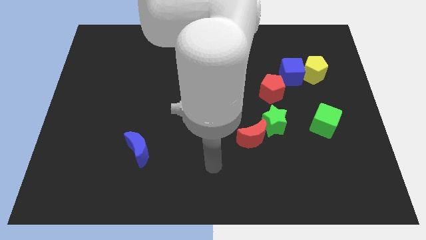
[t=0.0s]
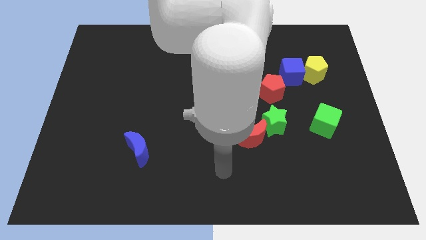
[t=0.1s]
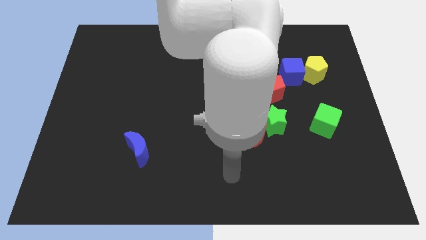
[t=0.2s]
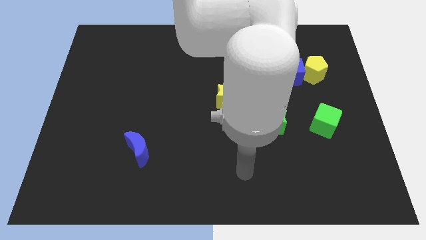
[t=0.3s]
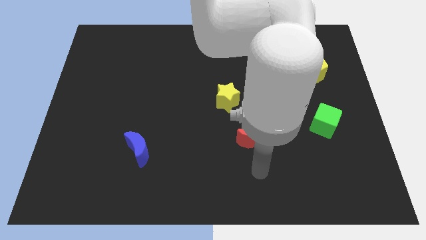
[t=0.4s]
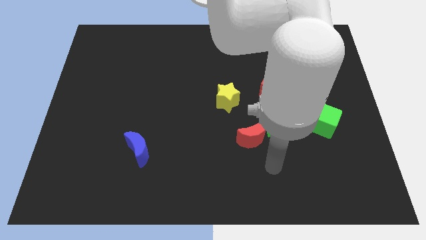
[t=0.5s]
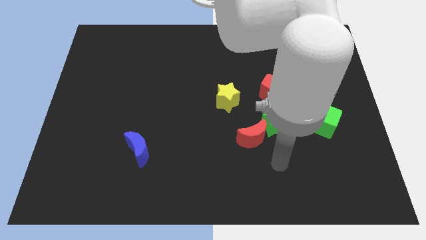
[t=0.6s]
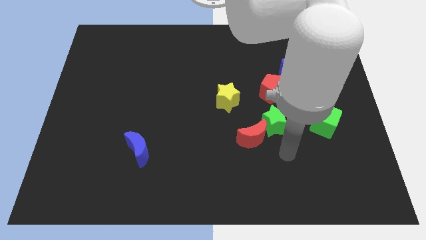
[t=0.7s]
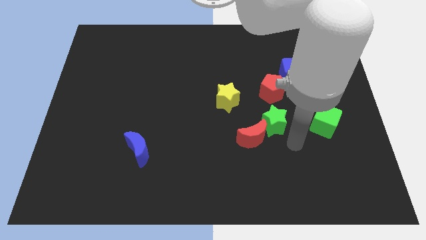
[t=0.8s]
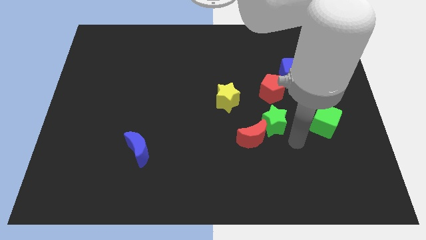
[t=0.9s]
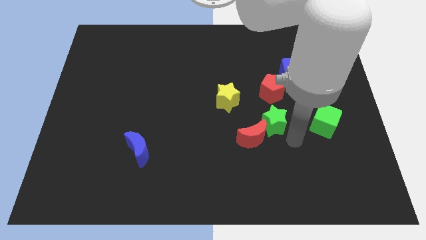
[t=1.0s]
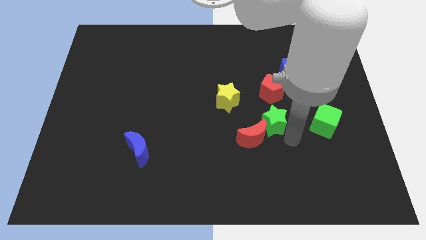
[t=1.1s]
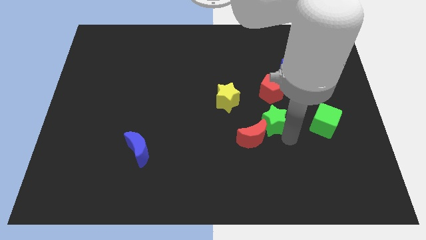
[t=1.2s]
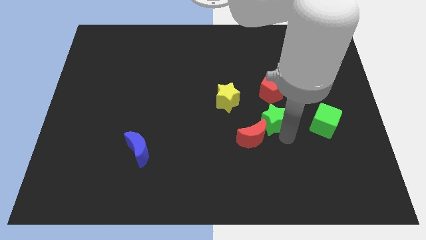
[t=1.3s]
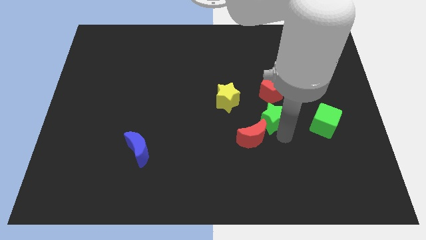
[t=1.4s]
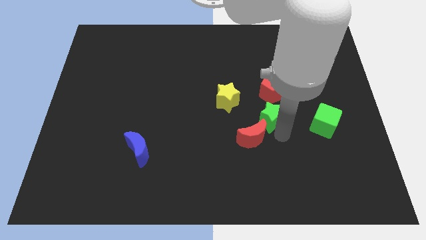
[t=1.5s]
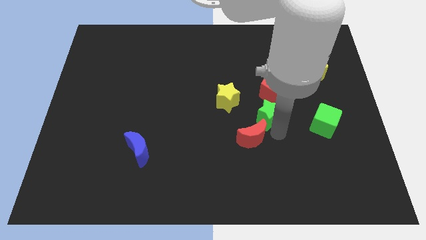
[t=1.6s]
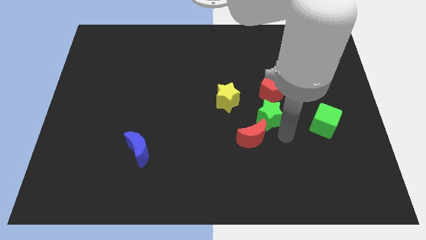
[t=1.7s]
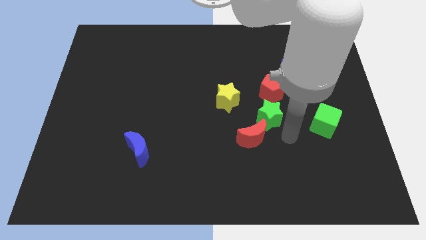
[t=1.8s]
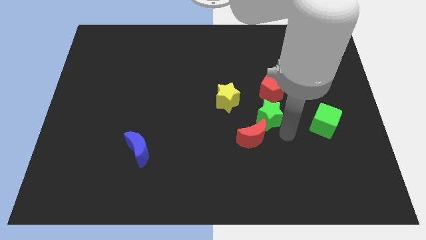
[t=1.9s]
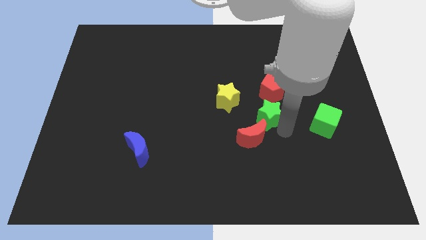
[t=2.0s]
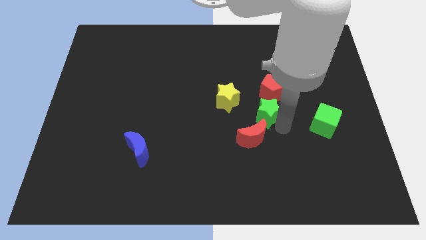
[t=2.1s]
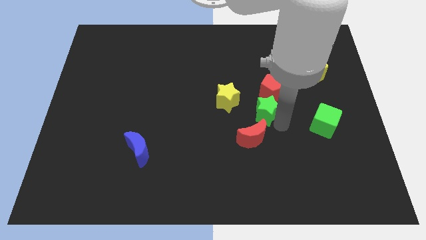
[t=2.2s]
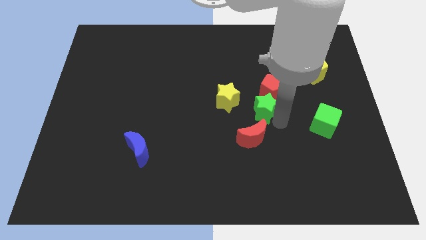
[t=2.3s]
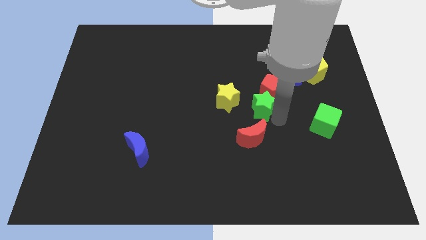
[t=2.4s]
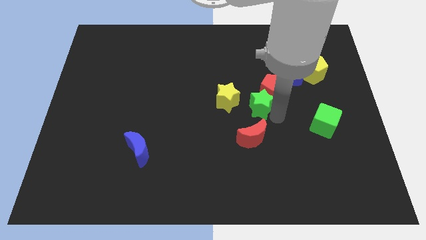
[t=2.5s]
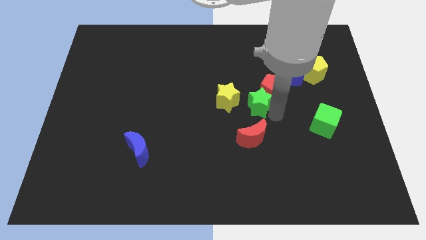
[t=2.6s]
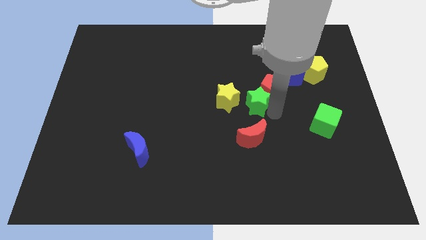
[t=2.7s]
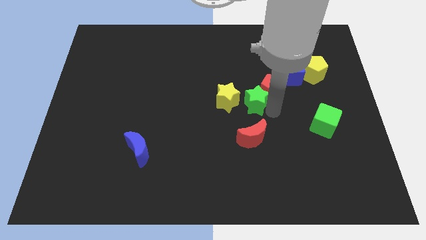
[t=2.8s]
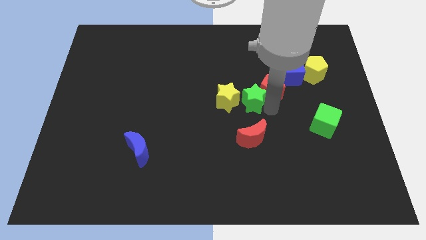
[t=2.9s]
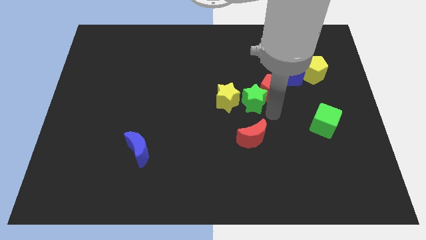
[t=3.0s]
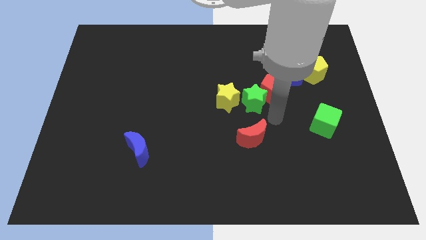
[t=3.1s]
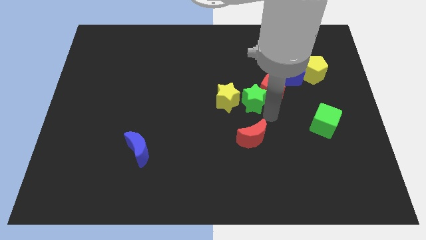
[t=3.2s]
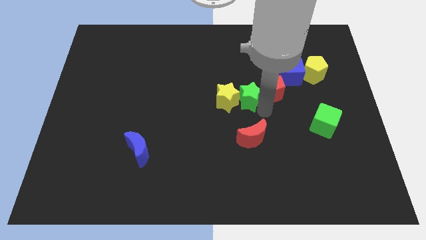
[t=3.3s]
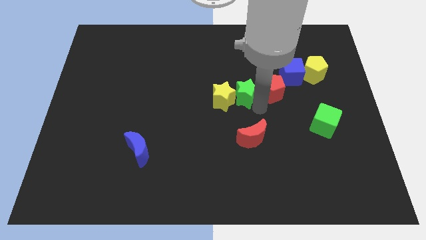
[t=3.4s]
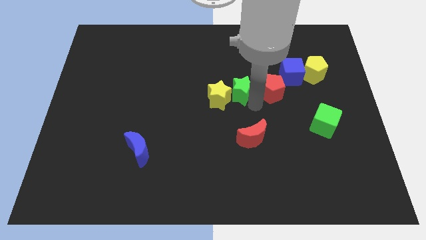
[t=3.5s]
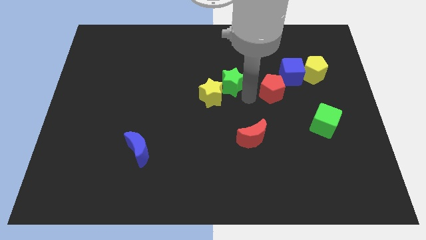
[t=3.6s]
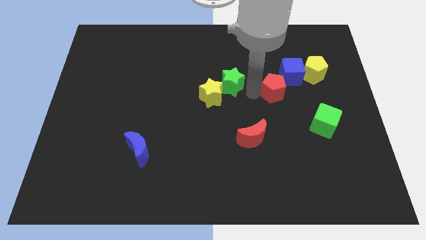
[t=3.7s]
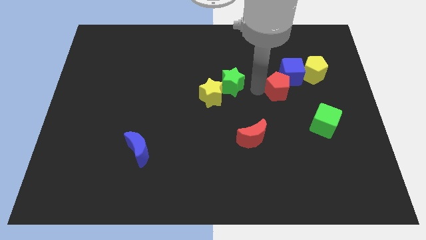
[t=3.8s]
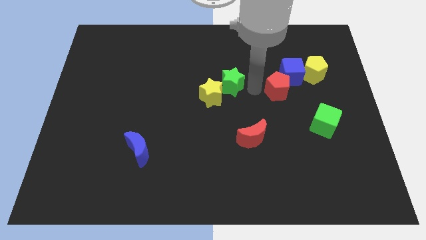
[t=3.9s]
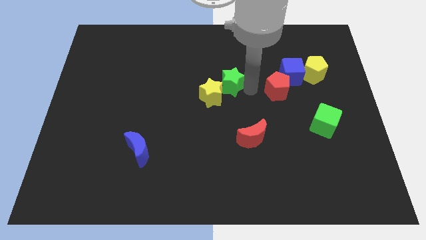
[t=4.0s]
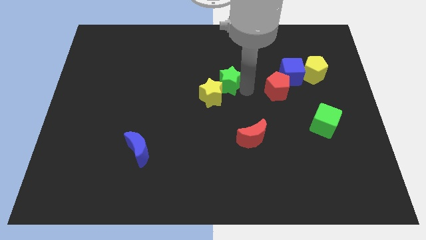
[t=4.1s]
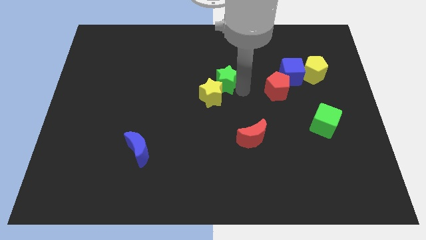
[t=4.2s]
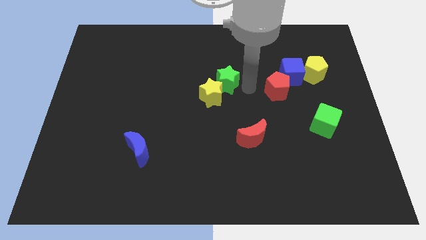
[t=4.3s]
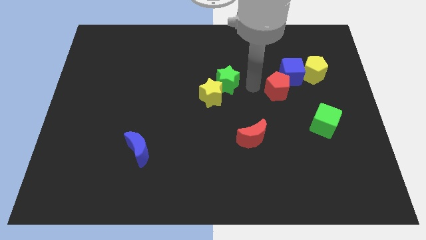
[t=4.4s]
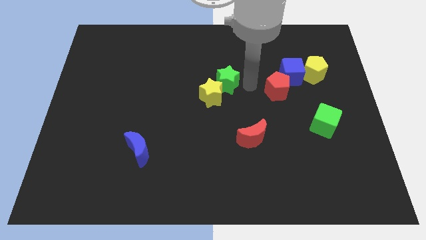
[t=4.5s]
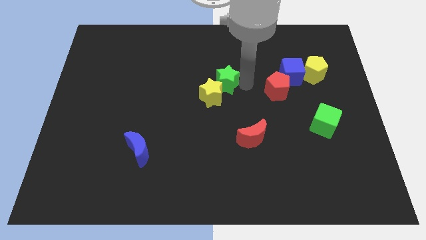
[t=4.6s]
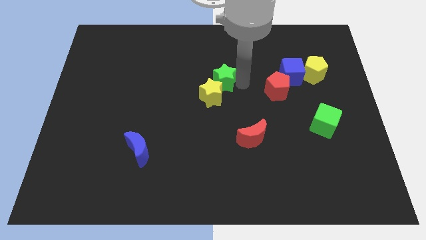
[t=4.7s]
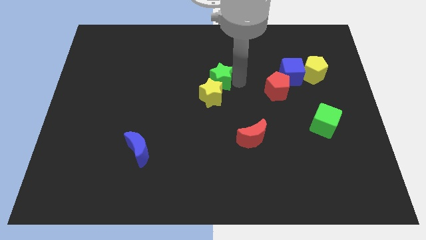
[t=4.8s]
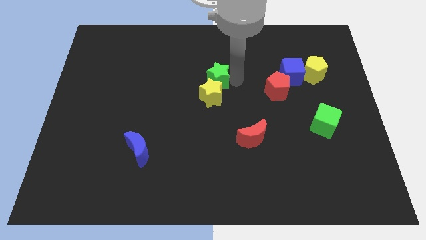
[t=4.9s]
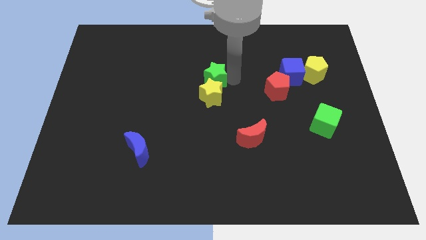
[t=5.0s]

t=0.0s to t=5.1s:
push the green star diagonally up and to the left of the yellow star

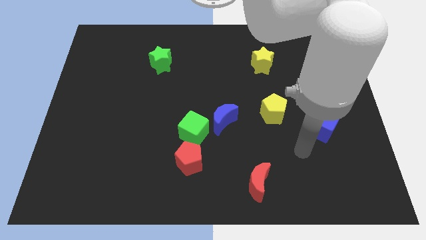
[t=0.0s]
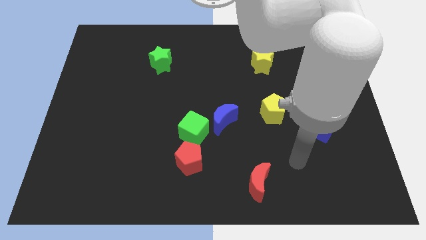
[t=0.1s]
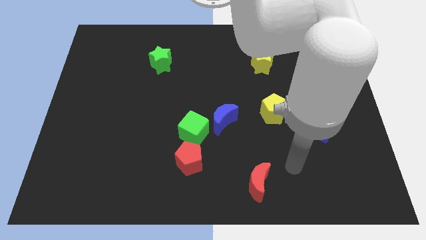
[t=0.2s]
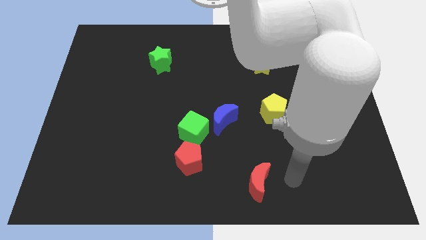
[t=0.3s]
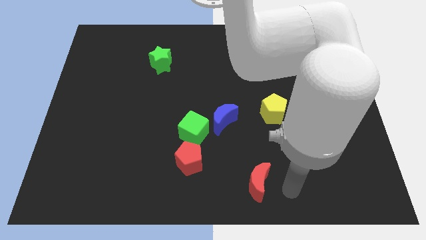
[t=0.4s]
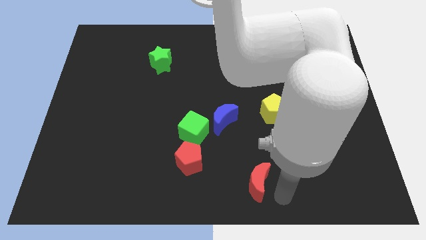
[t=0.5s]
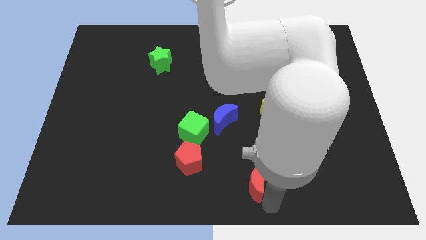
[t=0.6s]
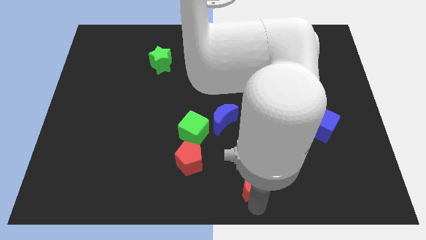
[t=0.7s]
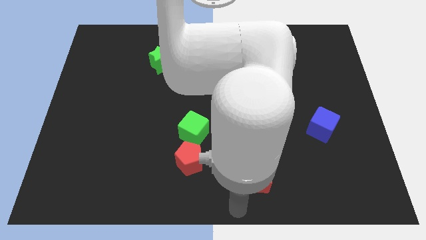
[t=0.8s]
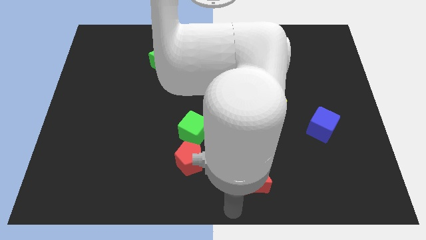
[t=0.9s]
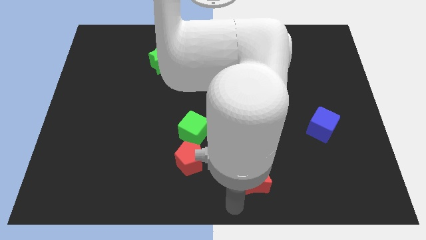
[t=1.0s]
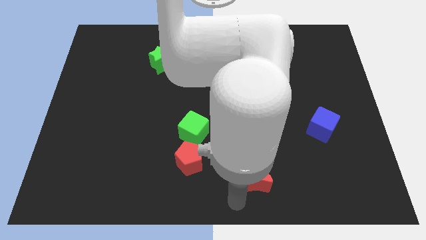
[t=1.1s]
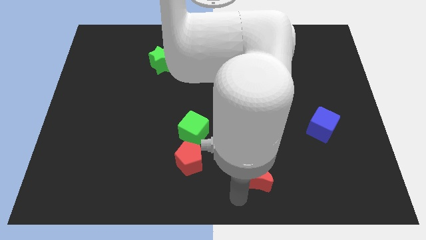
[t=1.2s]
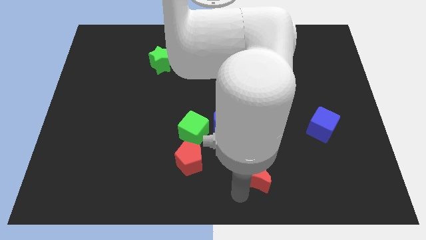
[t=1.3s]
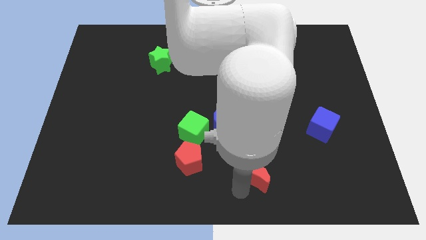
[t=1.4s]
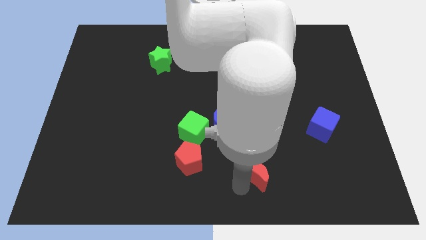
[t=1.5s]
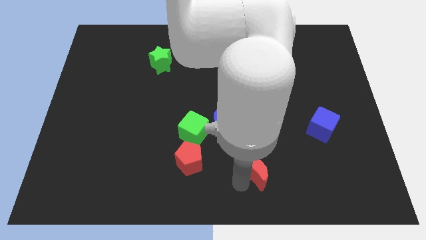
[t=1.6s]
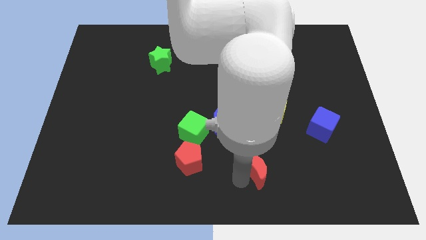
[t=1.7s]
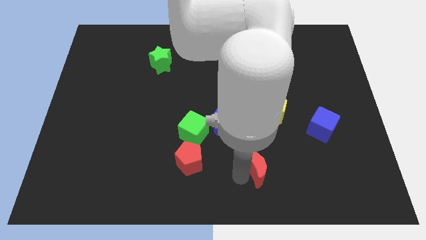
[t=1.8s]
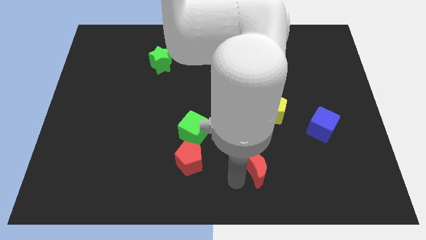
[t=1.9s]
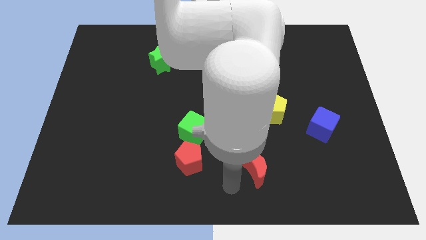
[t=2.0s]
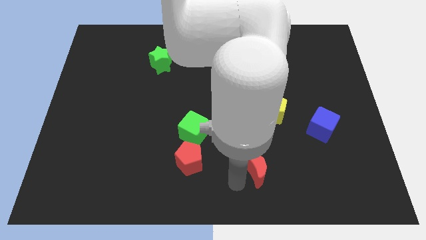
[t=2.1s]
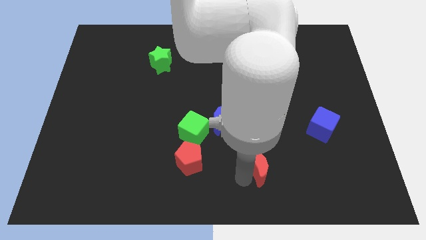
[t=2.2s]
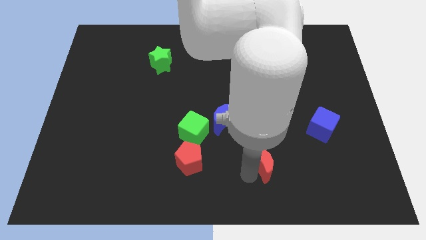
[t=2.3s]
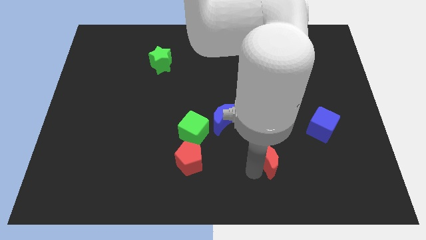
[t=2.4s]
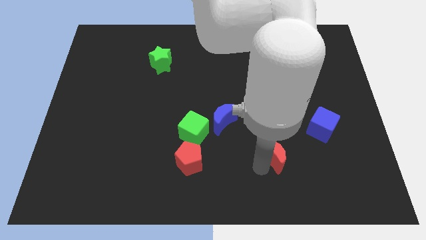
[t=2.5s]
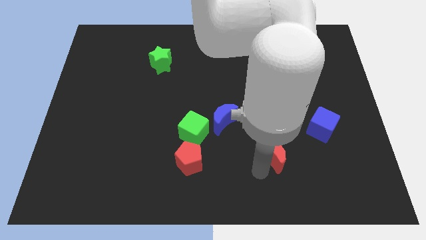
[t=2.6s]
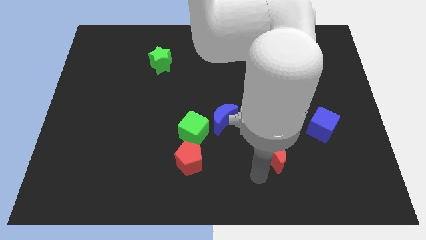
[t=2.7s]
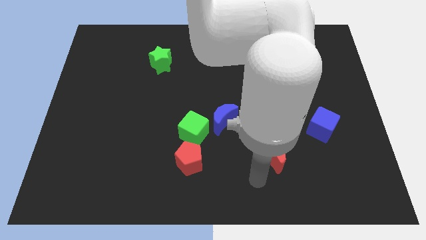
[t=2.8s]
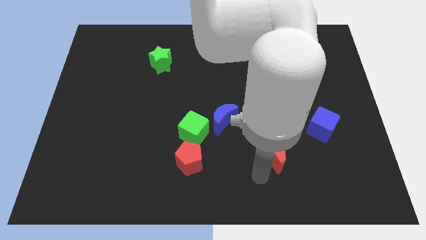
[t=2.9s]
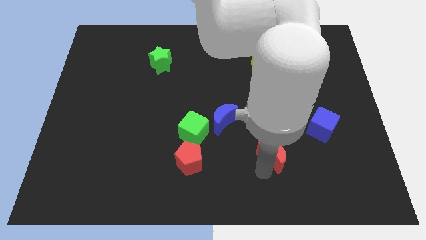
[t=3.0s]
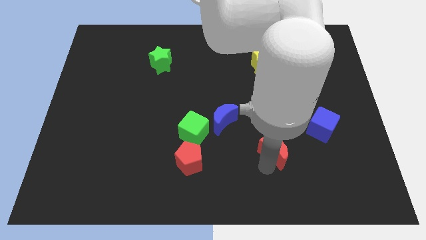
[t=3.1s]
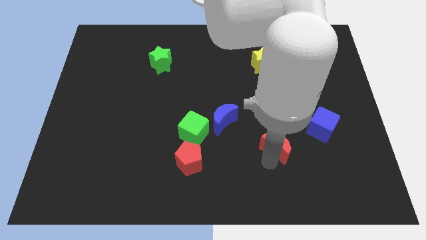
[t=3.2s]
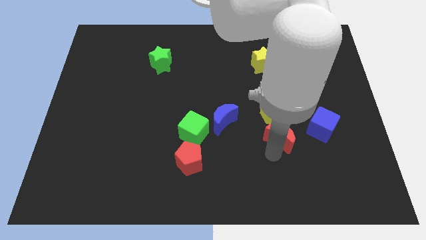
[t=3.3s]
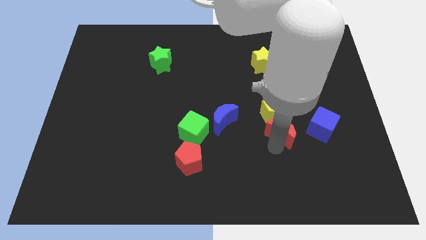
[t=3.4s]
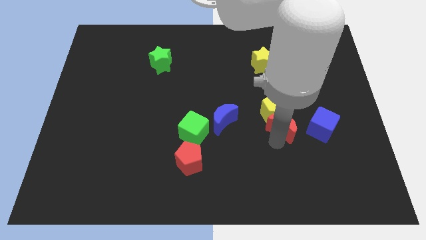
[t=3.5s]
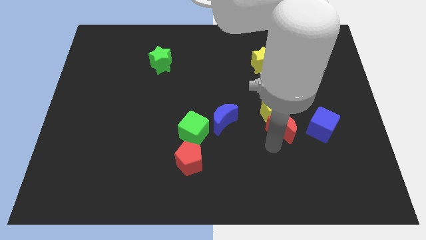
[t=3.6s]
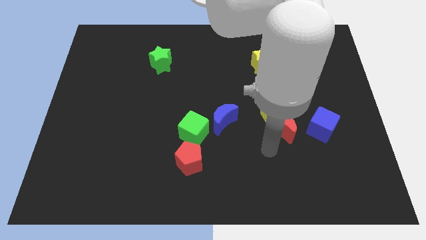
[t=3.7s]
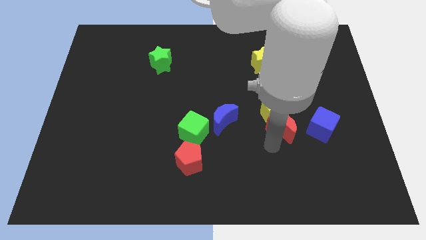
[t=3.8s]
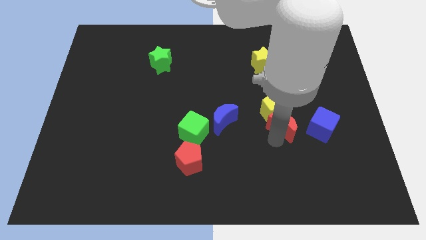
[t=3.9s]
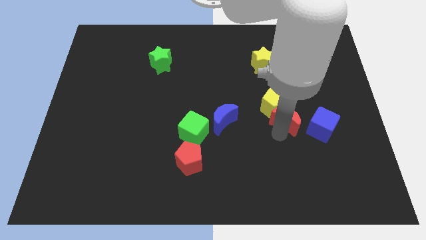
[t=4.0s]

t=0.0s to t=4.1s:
push the red moon diagonally up and to the left of the blue cube
